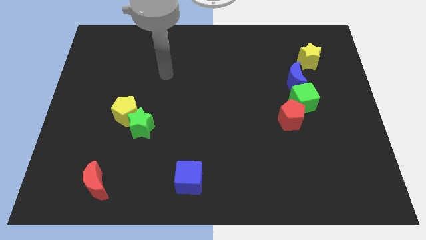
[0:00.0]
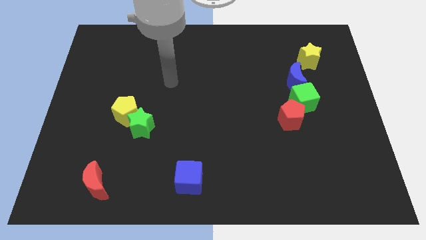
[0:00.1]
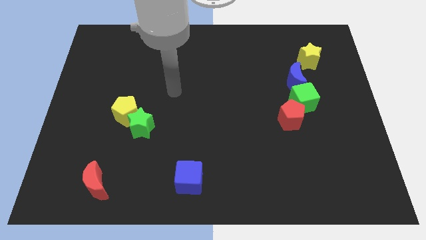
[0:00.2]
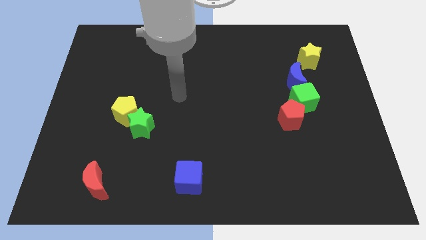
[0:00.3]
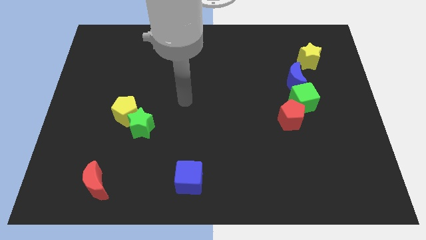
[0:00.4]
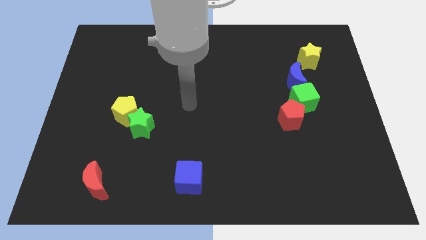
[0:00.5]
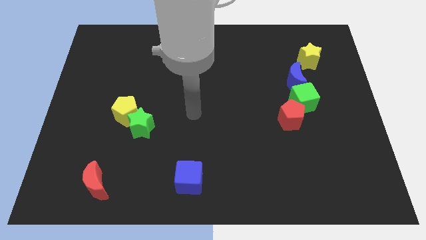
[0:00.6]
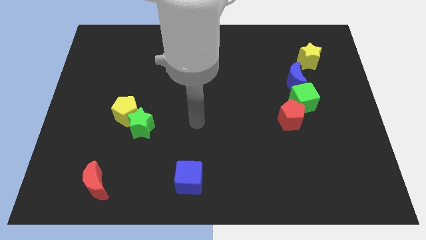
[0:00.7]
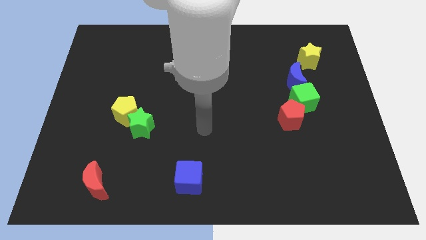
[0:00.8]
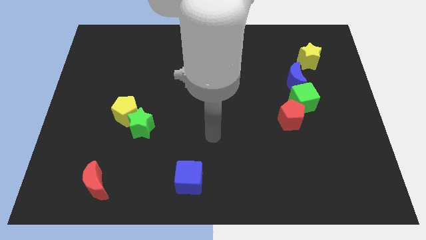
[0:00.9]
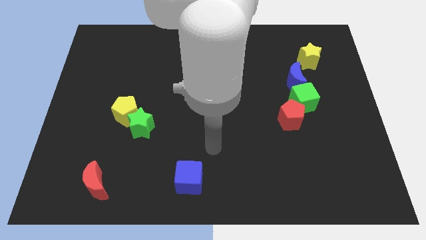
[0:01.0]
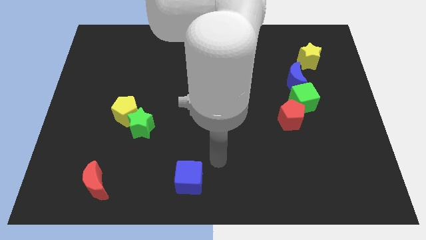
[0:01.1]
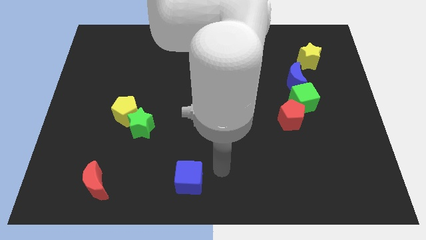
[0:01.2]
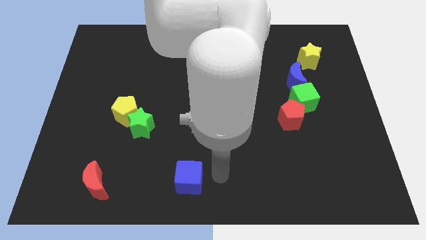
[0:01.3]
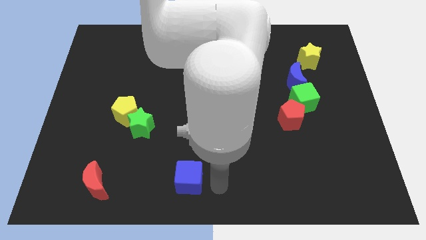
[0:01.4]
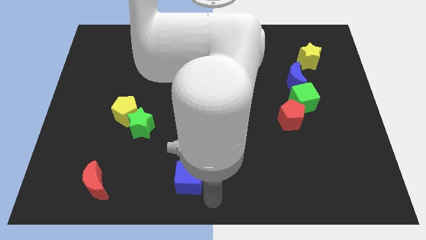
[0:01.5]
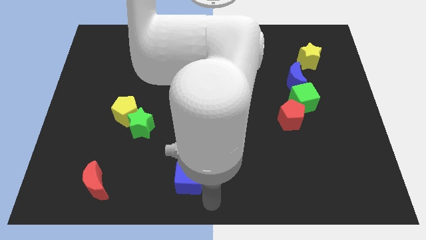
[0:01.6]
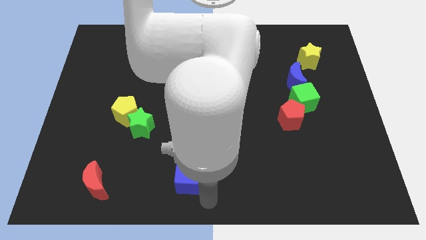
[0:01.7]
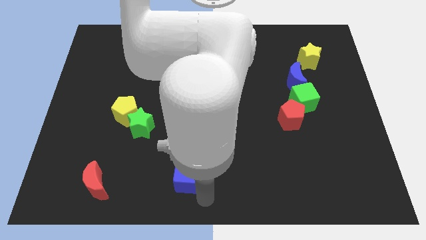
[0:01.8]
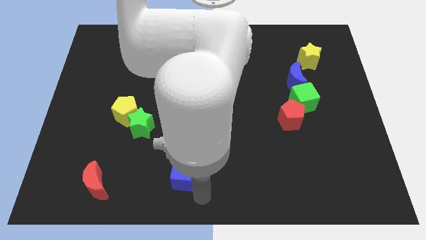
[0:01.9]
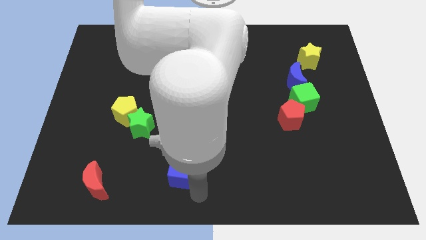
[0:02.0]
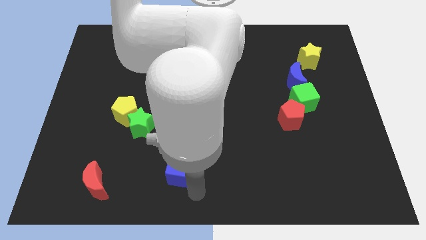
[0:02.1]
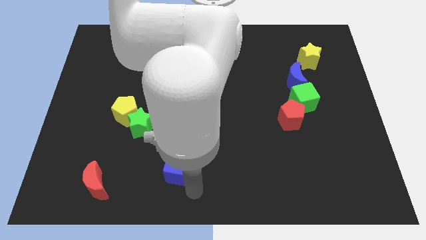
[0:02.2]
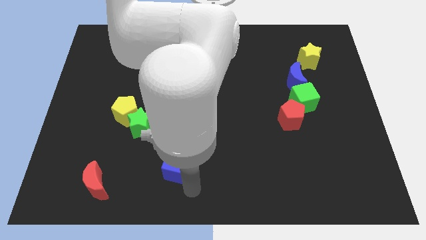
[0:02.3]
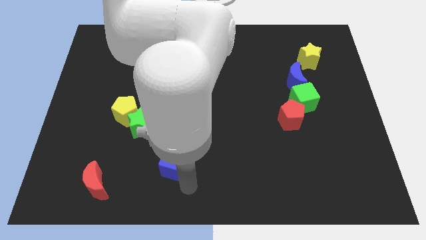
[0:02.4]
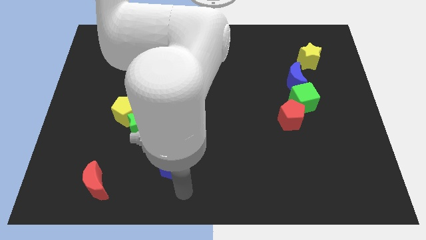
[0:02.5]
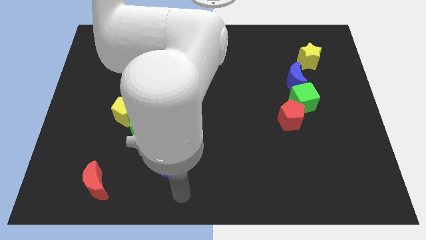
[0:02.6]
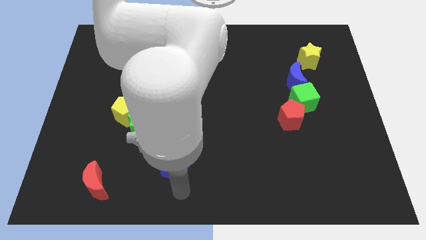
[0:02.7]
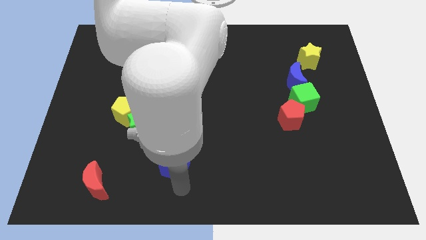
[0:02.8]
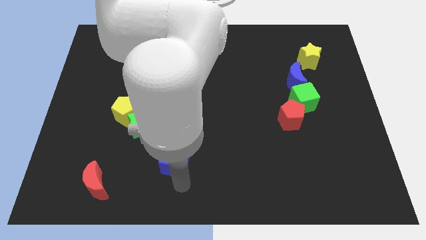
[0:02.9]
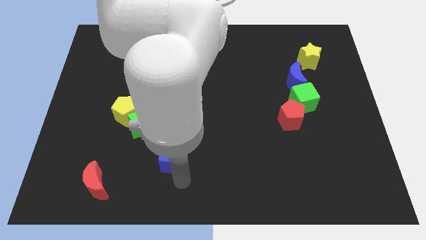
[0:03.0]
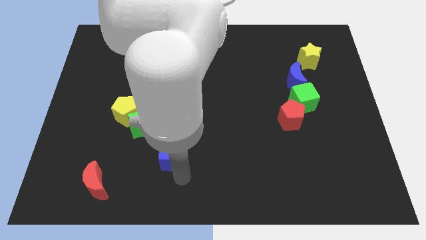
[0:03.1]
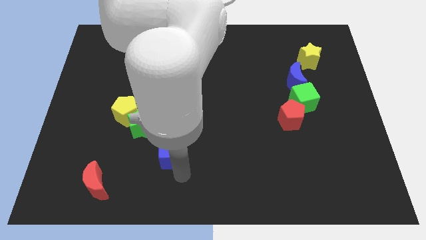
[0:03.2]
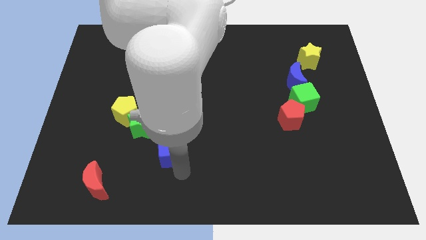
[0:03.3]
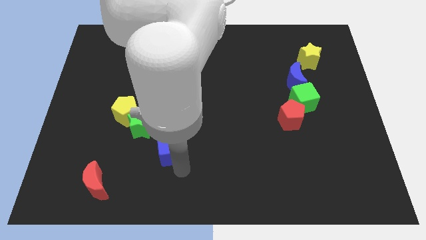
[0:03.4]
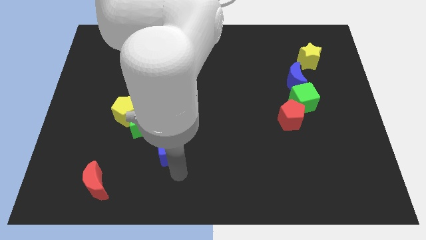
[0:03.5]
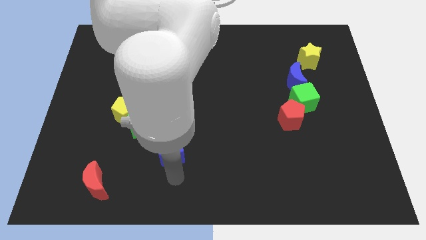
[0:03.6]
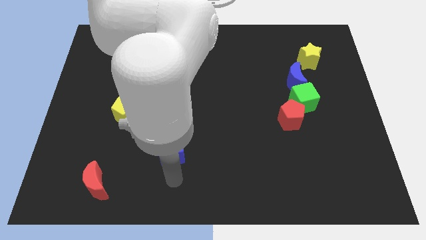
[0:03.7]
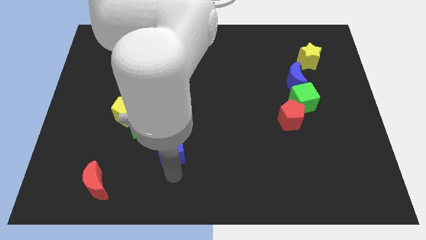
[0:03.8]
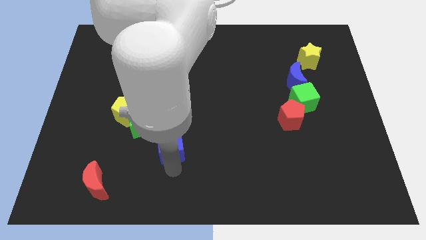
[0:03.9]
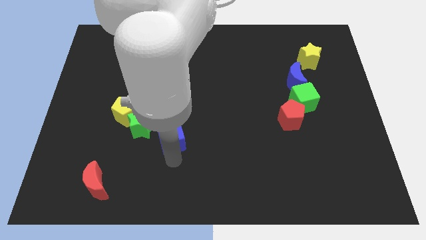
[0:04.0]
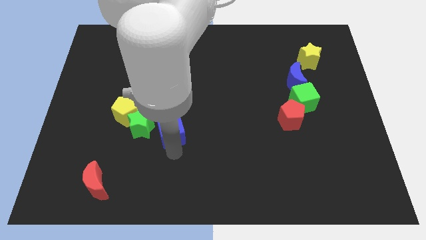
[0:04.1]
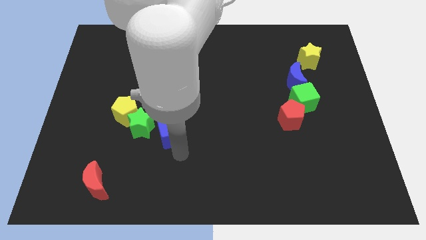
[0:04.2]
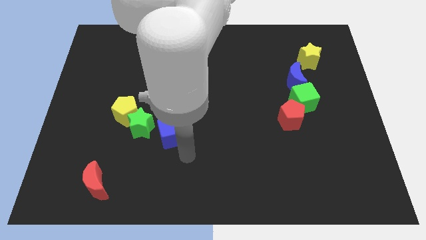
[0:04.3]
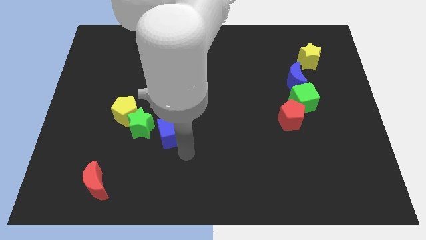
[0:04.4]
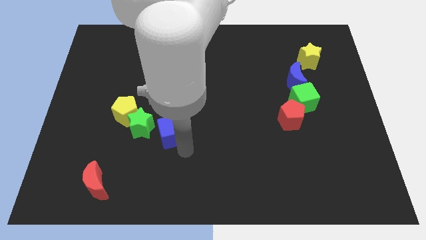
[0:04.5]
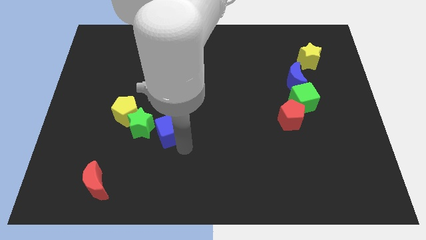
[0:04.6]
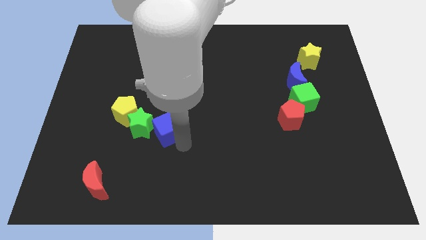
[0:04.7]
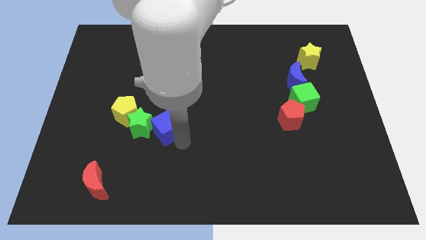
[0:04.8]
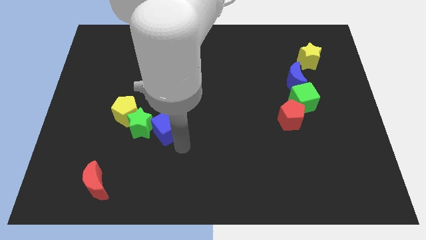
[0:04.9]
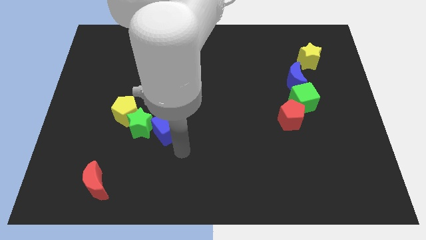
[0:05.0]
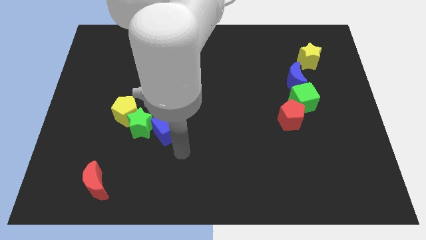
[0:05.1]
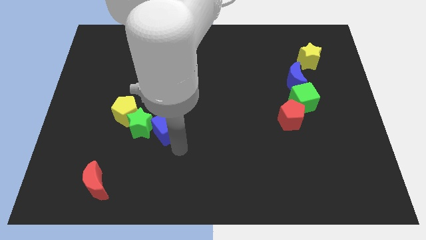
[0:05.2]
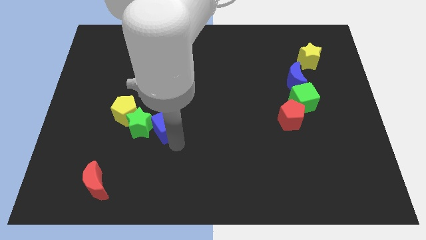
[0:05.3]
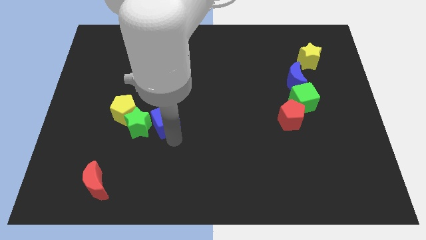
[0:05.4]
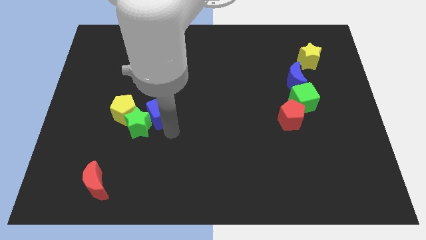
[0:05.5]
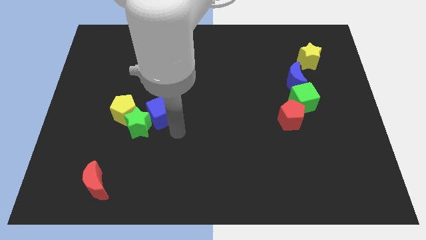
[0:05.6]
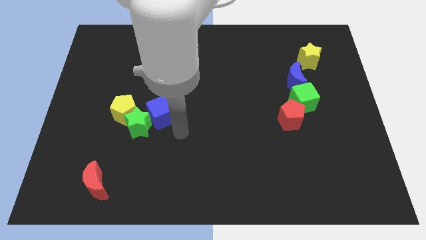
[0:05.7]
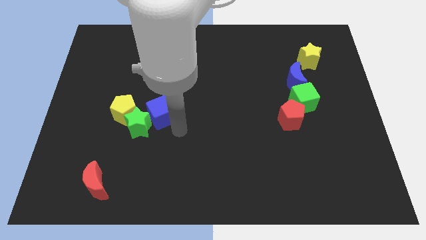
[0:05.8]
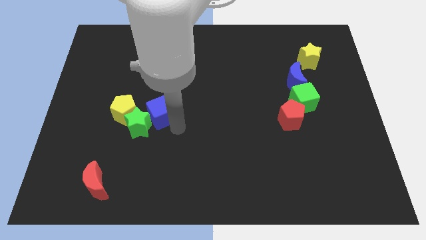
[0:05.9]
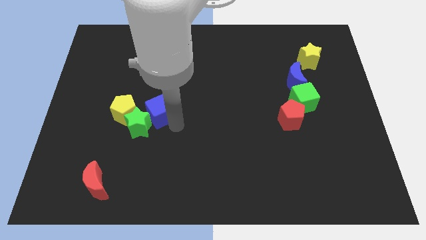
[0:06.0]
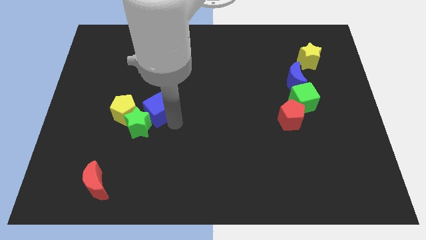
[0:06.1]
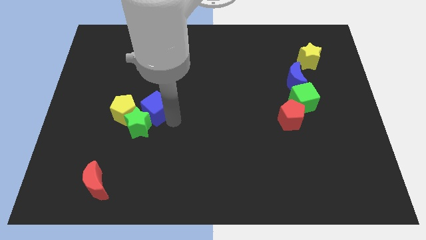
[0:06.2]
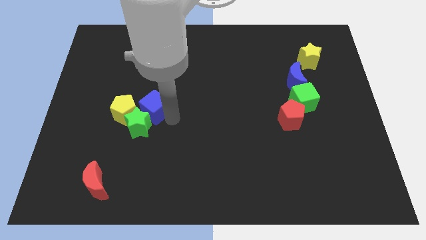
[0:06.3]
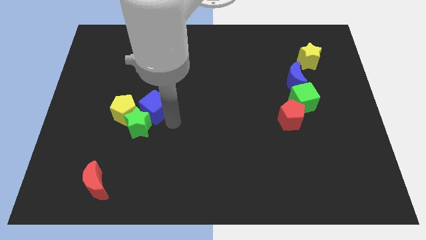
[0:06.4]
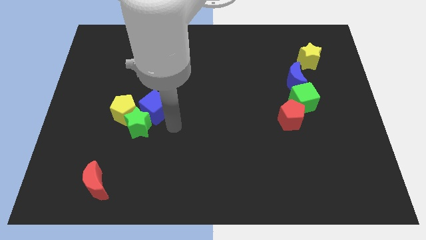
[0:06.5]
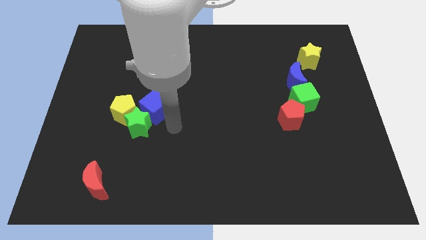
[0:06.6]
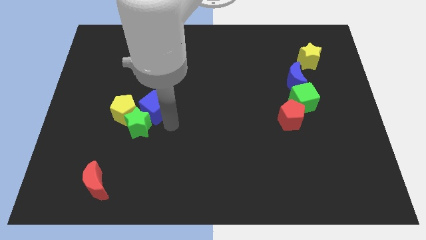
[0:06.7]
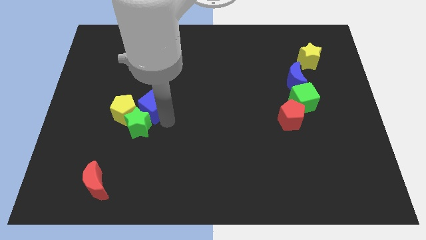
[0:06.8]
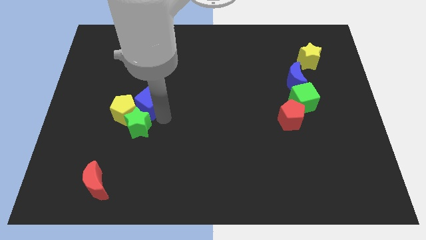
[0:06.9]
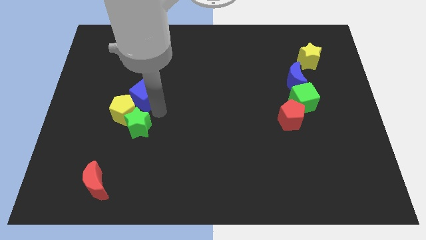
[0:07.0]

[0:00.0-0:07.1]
move the blue cube upwards and to the left

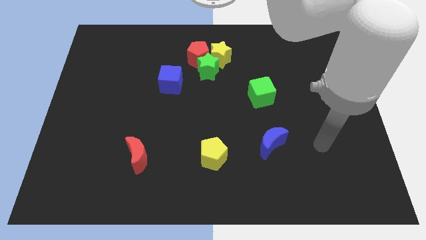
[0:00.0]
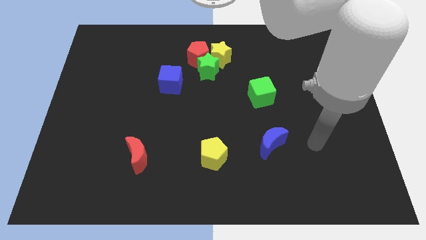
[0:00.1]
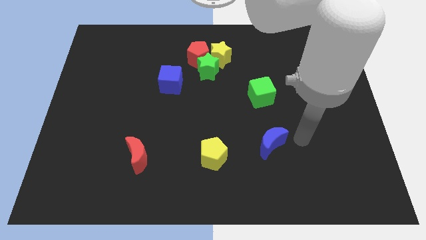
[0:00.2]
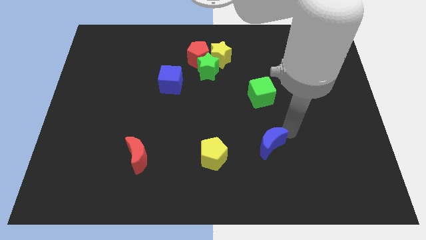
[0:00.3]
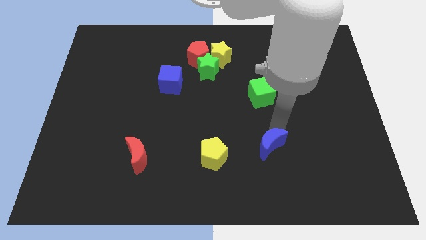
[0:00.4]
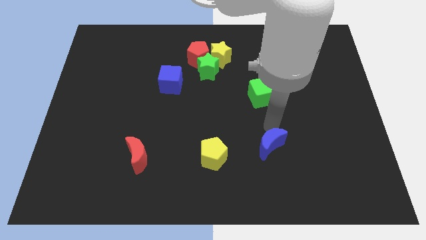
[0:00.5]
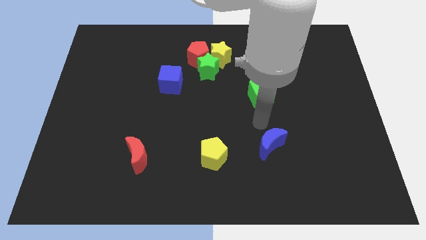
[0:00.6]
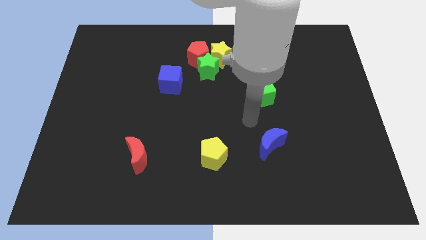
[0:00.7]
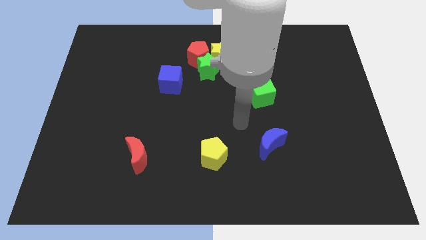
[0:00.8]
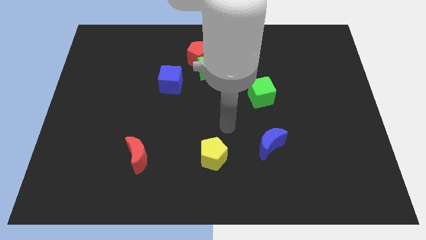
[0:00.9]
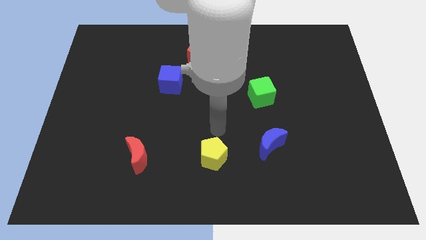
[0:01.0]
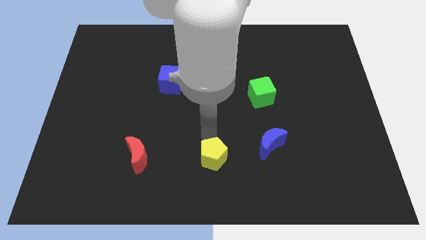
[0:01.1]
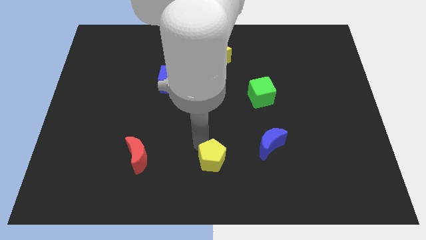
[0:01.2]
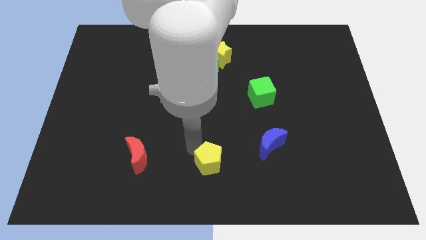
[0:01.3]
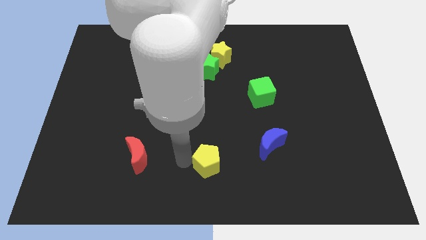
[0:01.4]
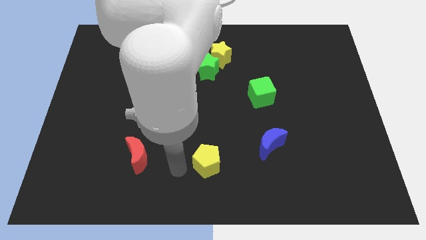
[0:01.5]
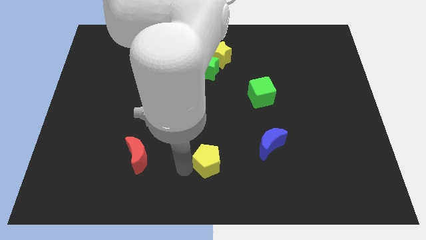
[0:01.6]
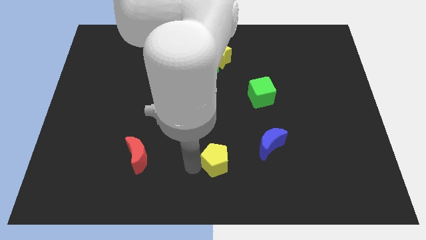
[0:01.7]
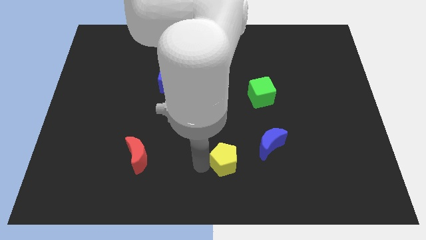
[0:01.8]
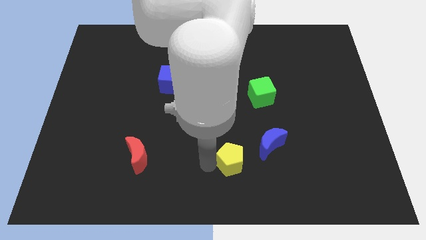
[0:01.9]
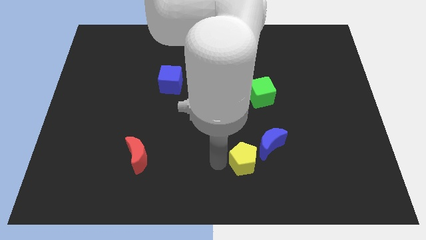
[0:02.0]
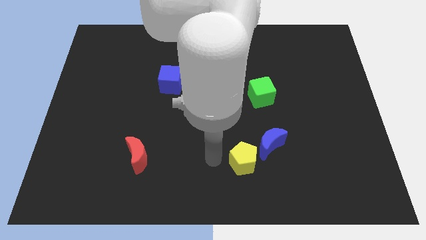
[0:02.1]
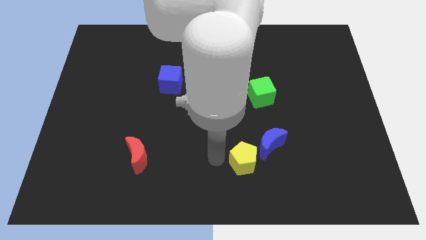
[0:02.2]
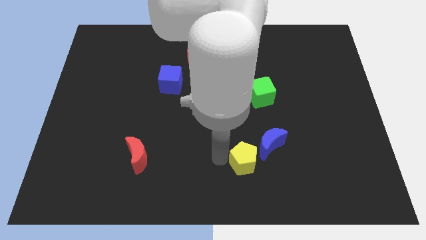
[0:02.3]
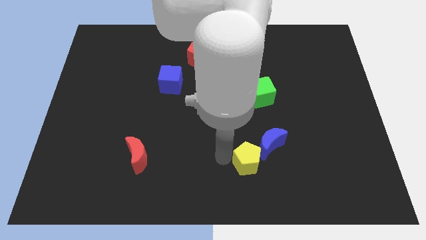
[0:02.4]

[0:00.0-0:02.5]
slightly slide the yellow pentagon to the right
